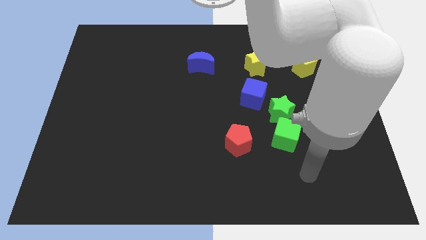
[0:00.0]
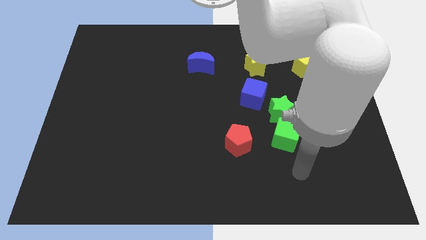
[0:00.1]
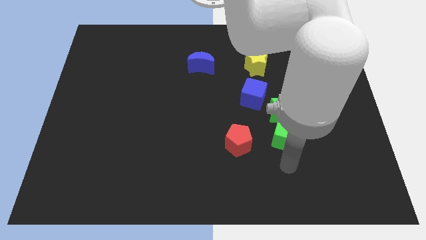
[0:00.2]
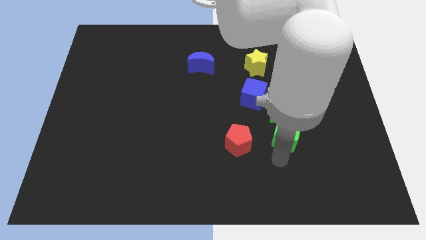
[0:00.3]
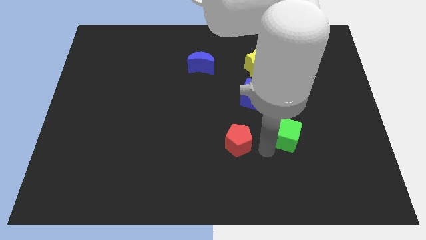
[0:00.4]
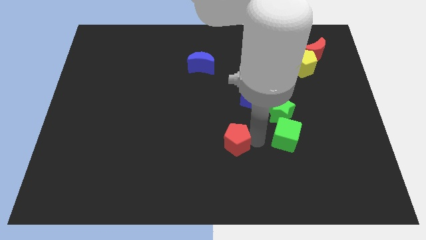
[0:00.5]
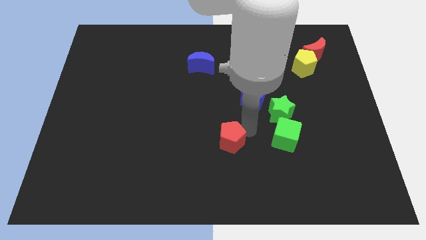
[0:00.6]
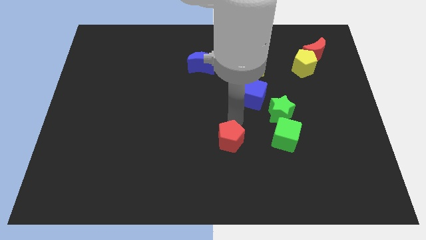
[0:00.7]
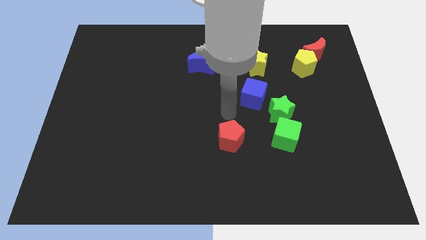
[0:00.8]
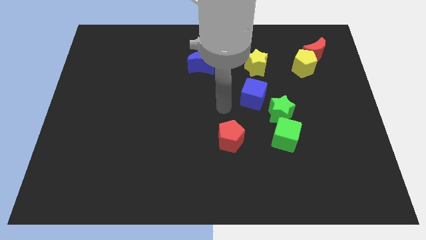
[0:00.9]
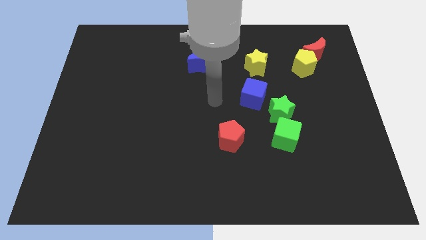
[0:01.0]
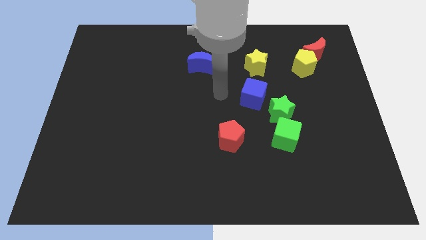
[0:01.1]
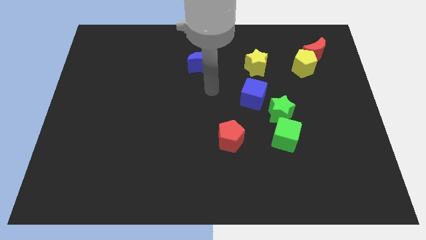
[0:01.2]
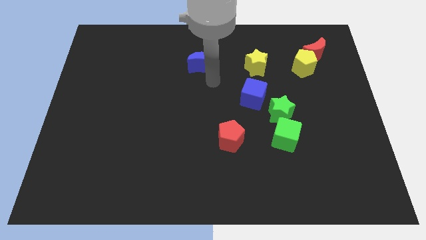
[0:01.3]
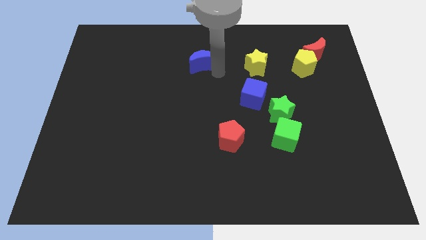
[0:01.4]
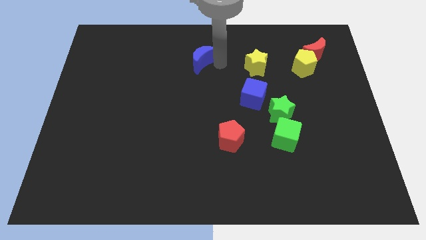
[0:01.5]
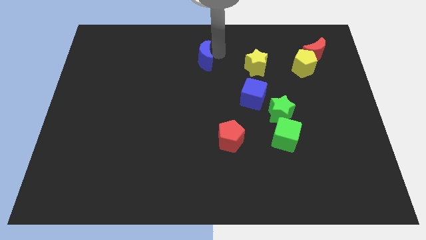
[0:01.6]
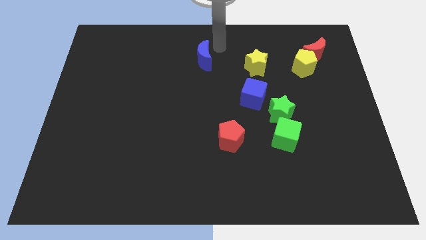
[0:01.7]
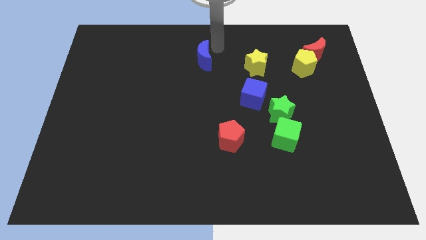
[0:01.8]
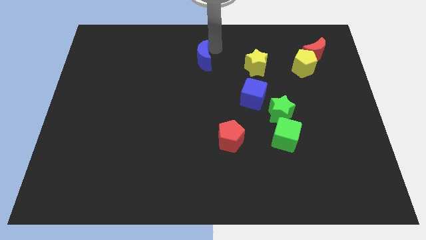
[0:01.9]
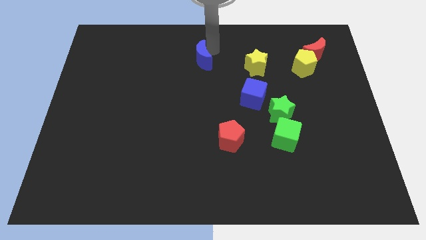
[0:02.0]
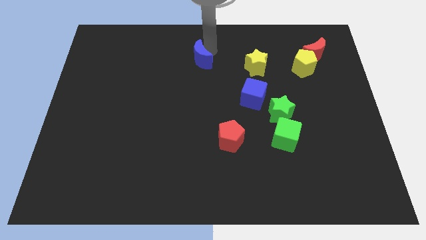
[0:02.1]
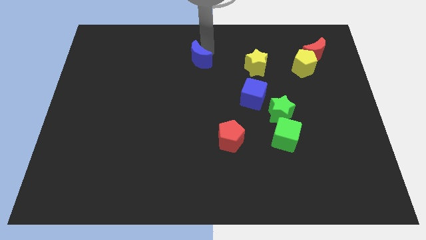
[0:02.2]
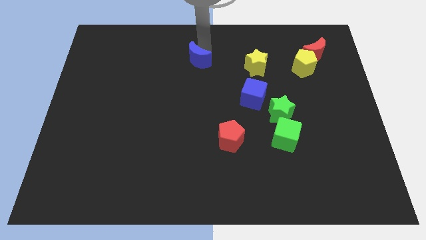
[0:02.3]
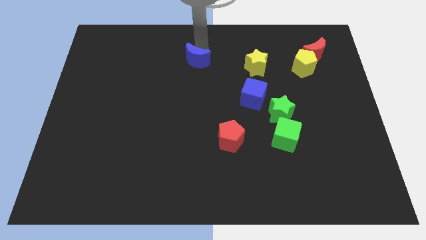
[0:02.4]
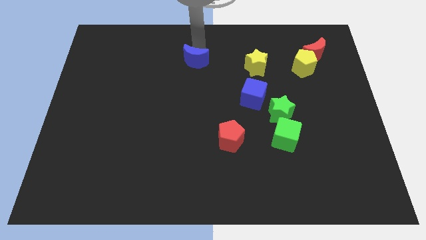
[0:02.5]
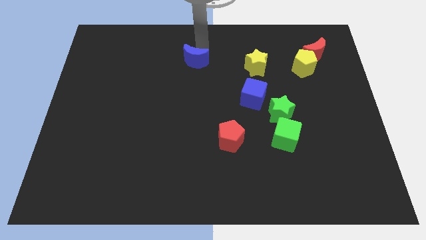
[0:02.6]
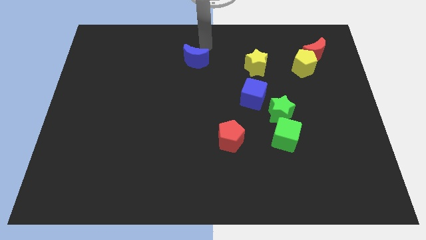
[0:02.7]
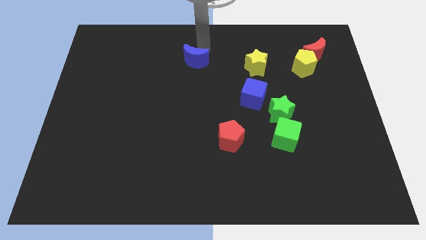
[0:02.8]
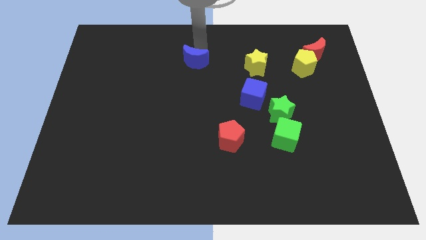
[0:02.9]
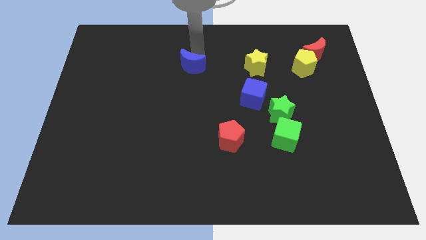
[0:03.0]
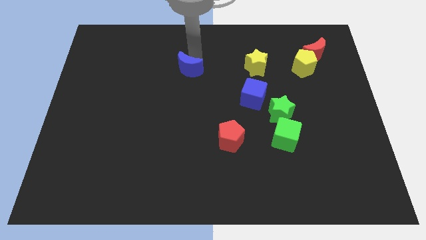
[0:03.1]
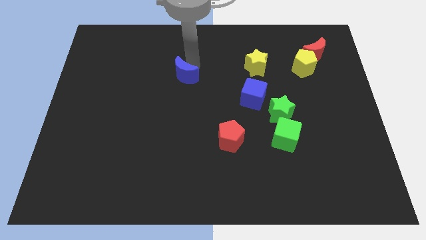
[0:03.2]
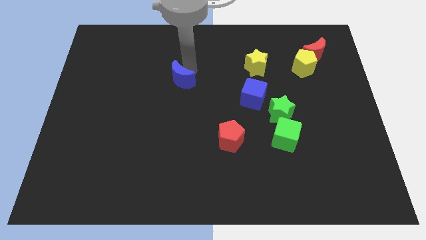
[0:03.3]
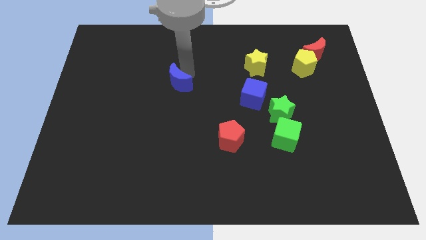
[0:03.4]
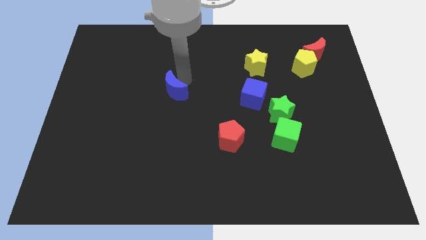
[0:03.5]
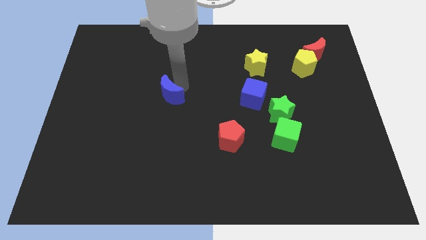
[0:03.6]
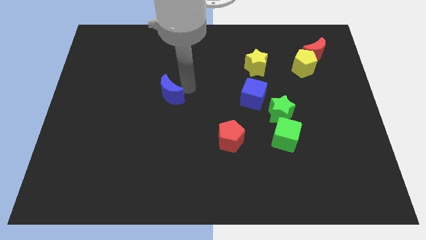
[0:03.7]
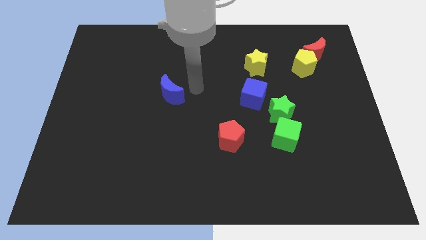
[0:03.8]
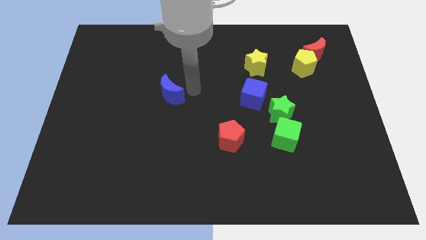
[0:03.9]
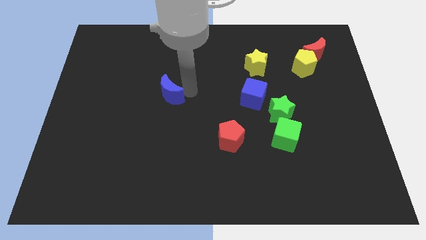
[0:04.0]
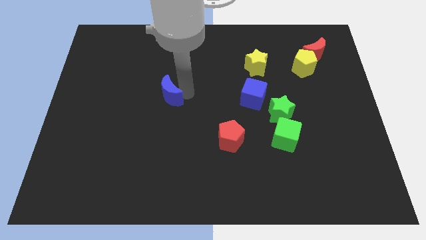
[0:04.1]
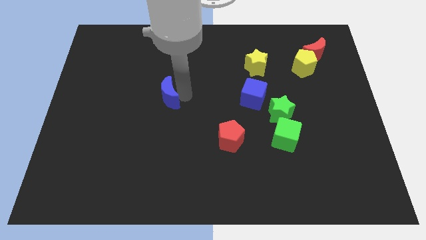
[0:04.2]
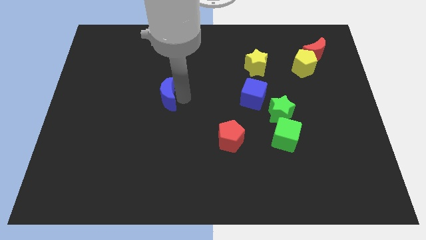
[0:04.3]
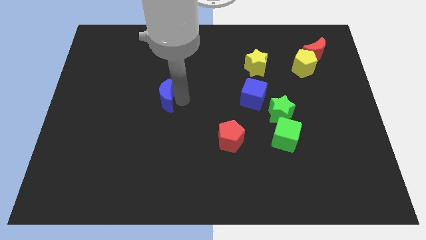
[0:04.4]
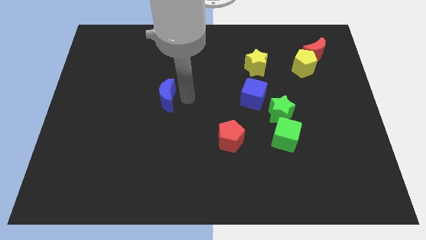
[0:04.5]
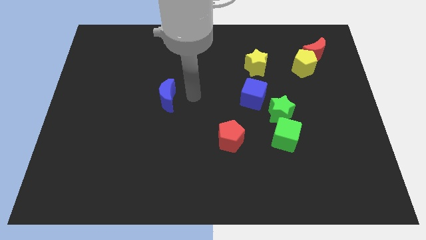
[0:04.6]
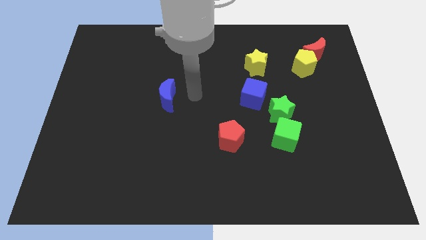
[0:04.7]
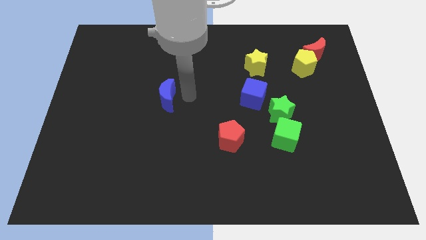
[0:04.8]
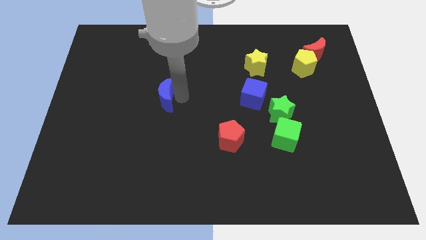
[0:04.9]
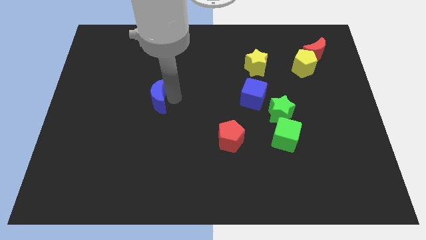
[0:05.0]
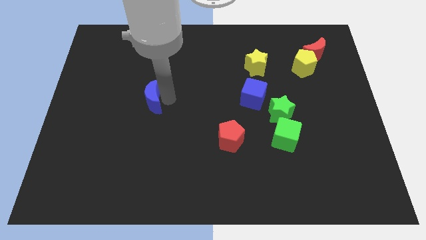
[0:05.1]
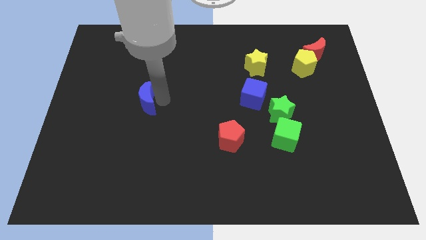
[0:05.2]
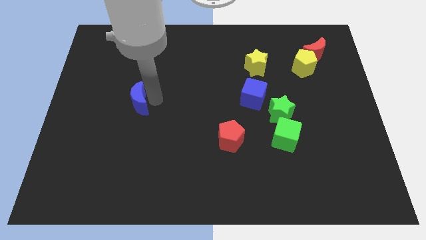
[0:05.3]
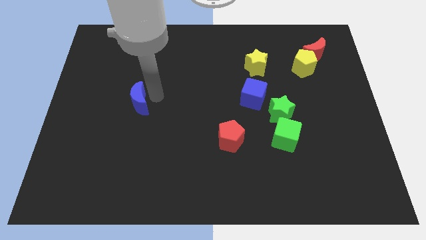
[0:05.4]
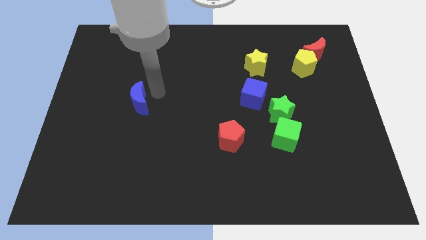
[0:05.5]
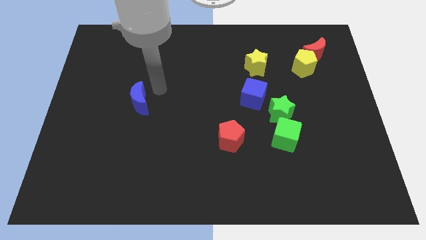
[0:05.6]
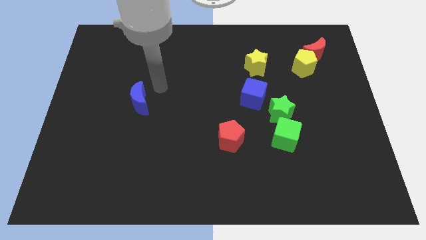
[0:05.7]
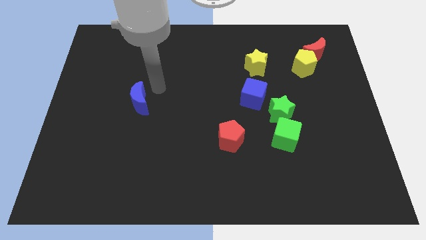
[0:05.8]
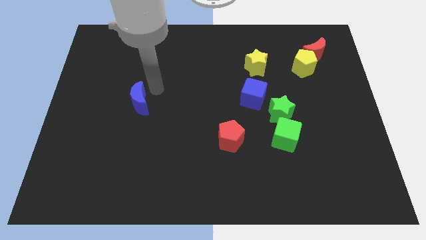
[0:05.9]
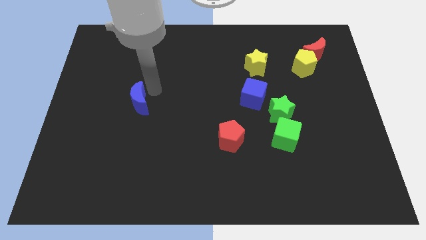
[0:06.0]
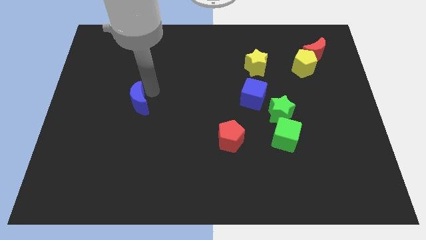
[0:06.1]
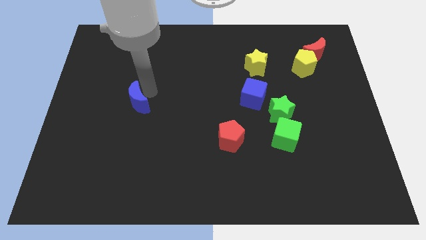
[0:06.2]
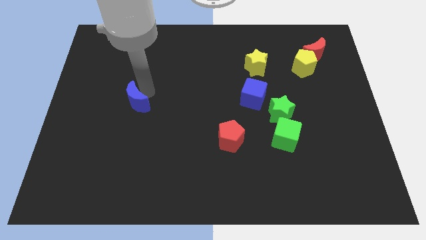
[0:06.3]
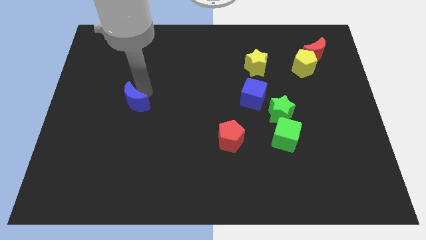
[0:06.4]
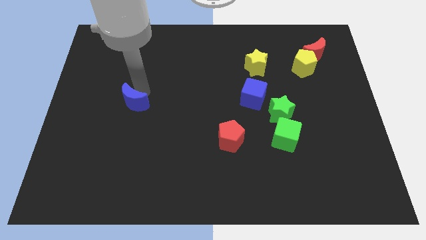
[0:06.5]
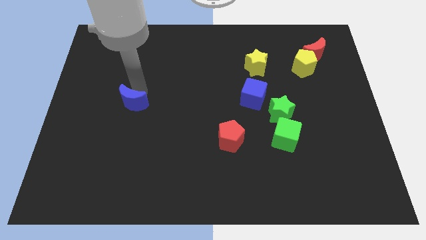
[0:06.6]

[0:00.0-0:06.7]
move the blue moon down and then to the left

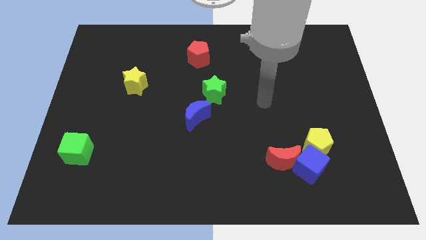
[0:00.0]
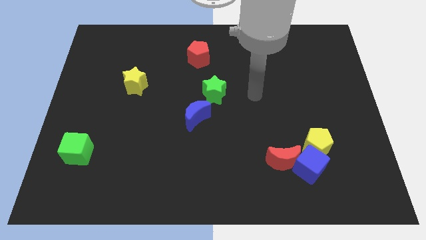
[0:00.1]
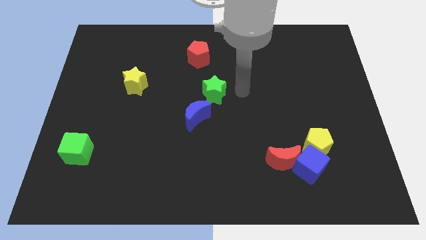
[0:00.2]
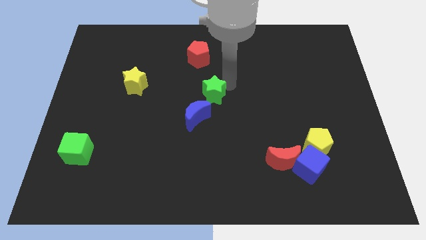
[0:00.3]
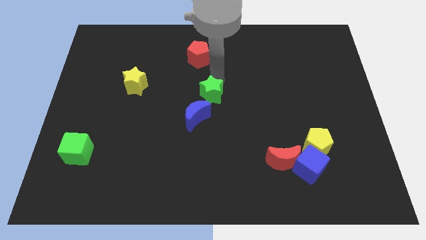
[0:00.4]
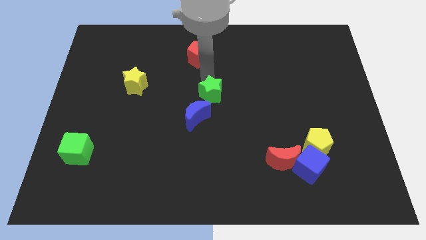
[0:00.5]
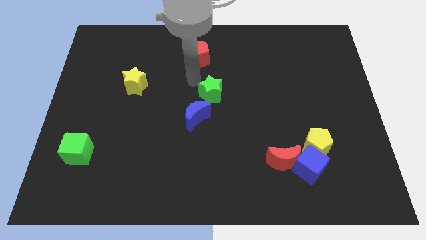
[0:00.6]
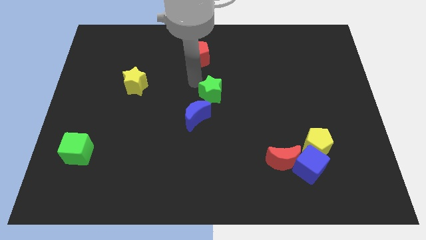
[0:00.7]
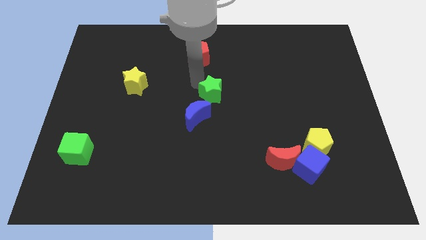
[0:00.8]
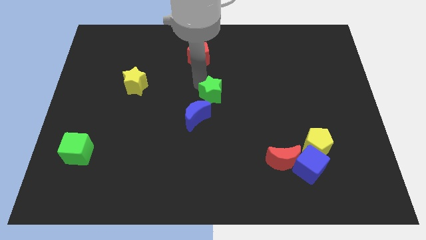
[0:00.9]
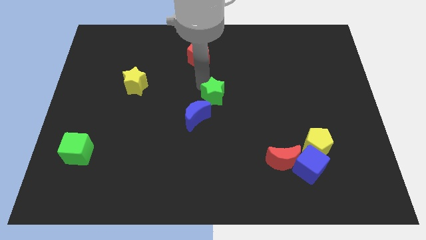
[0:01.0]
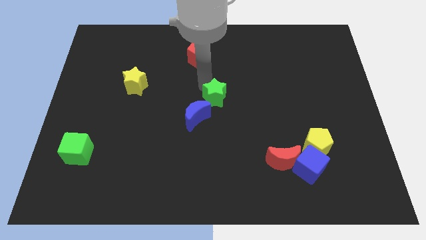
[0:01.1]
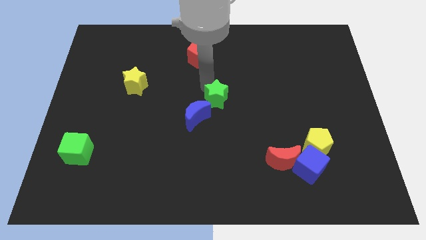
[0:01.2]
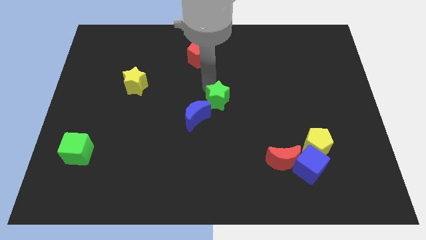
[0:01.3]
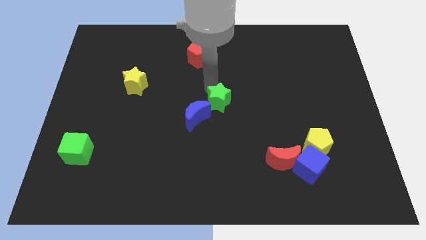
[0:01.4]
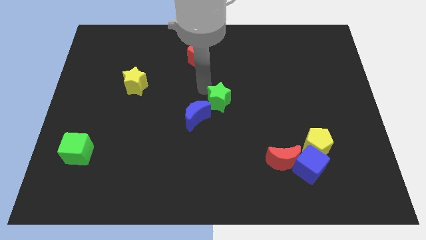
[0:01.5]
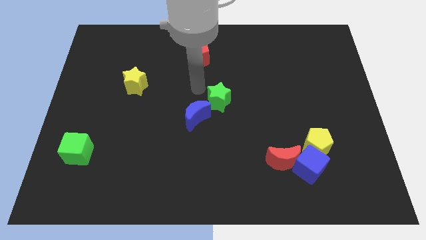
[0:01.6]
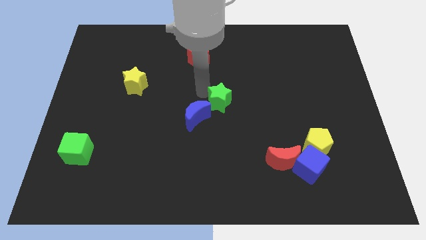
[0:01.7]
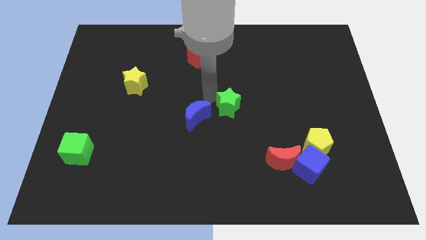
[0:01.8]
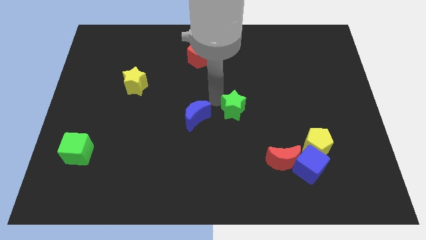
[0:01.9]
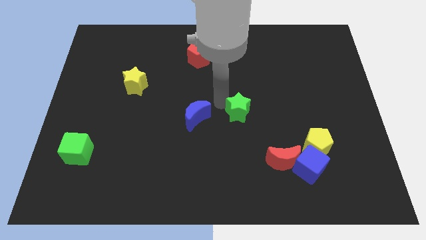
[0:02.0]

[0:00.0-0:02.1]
push the green star a little down and to the right
